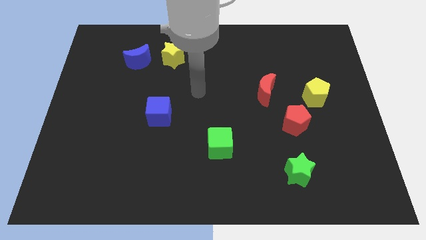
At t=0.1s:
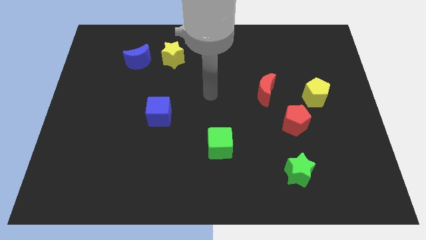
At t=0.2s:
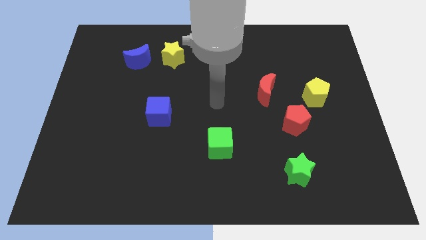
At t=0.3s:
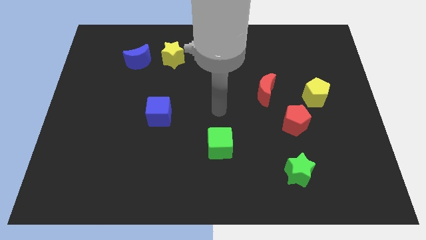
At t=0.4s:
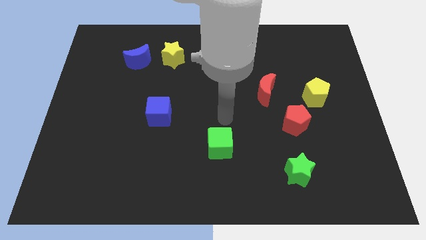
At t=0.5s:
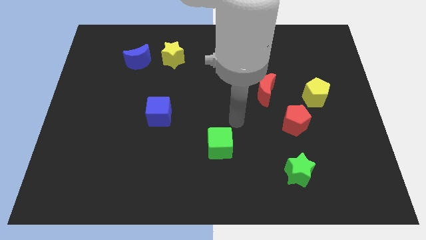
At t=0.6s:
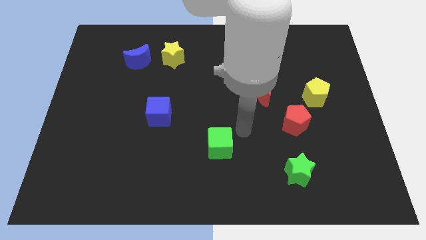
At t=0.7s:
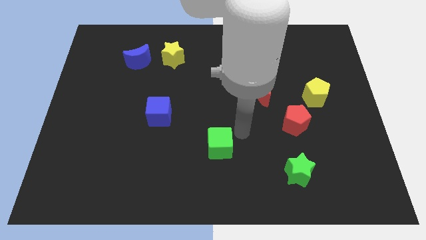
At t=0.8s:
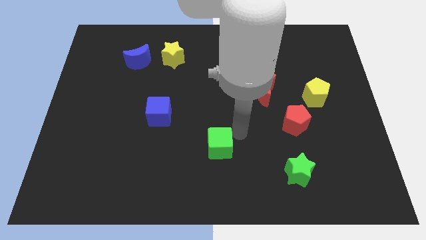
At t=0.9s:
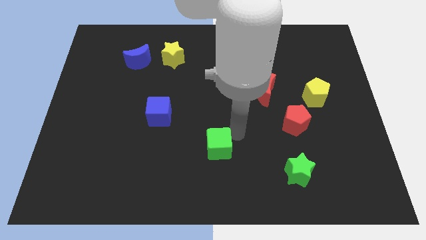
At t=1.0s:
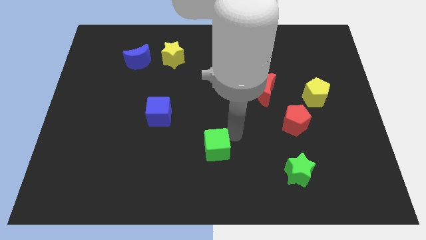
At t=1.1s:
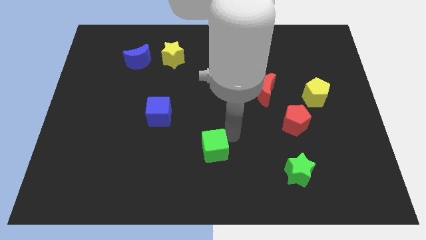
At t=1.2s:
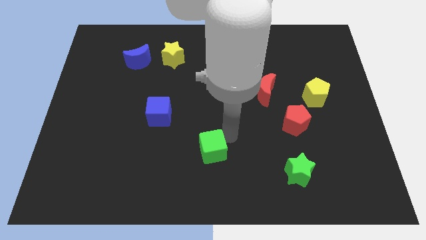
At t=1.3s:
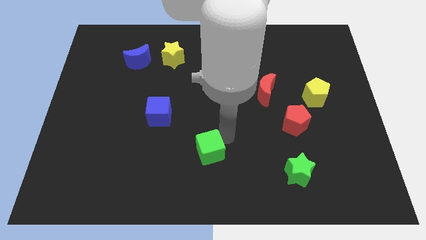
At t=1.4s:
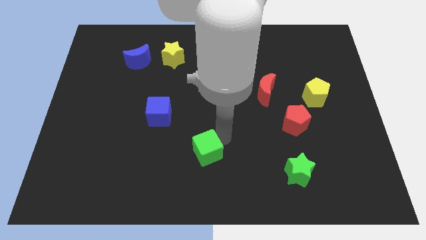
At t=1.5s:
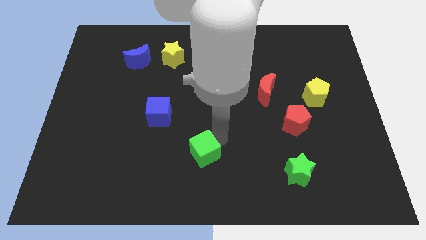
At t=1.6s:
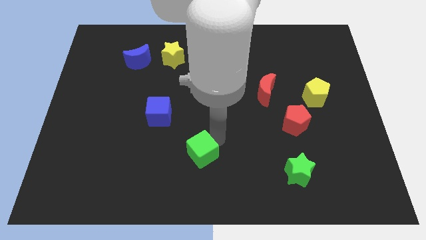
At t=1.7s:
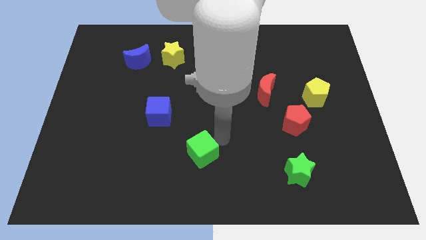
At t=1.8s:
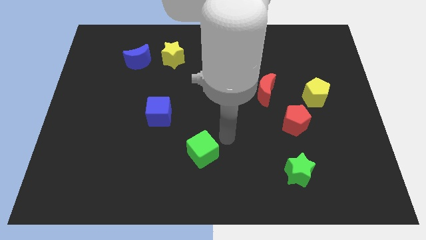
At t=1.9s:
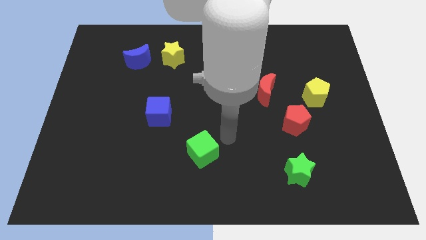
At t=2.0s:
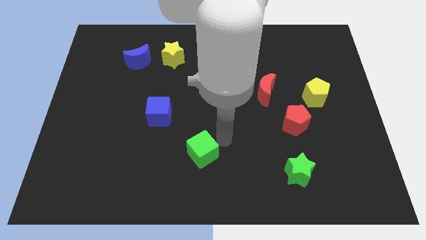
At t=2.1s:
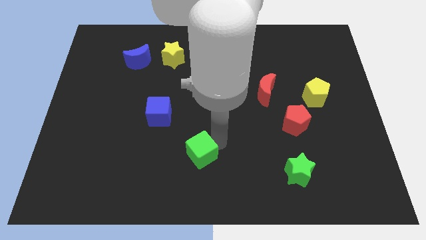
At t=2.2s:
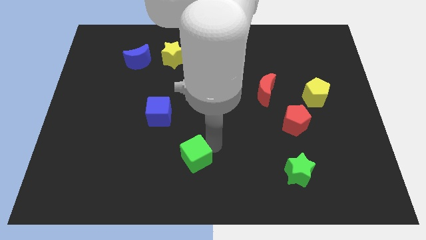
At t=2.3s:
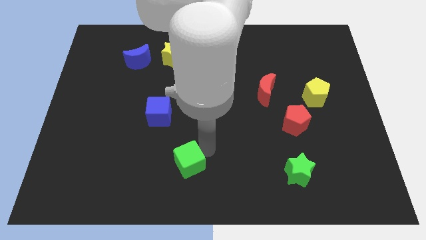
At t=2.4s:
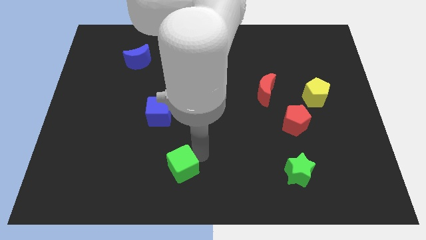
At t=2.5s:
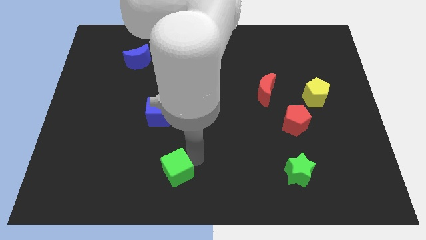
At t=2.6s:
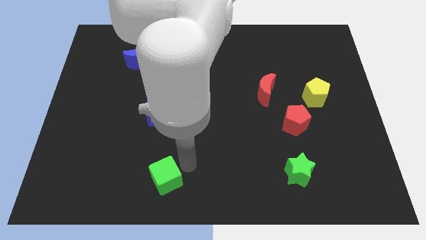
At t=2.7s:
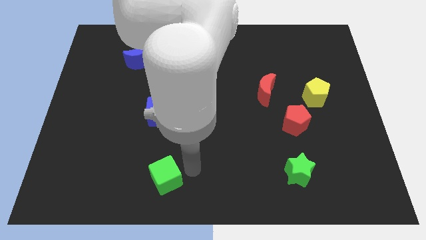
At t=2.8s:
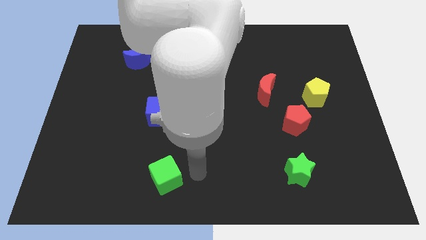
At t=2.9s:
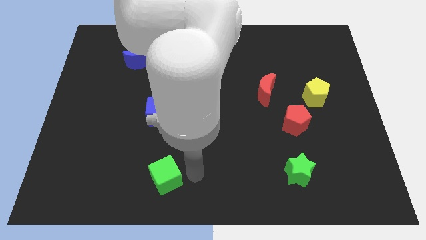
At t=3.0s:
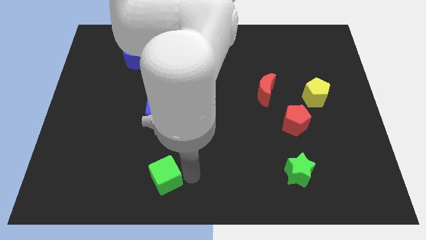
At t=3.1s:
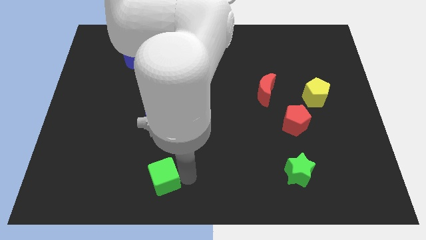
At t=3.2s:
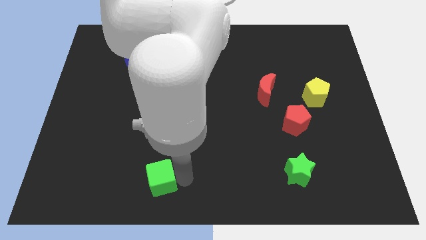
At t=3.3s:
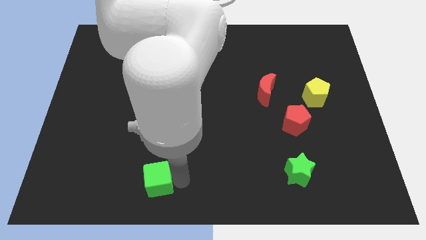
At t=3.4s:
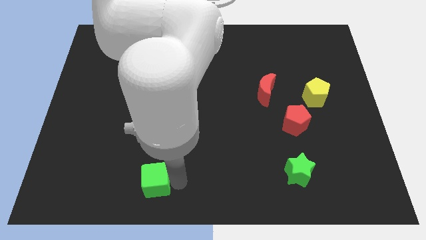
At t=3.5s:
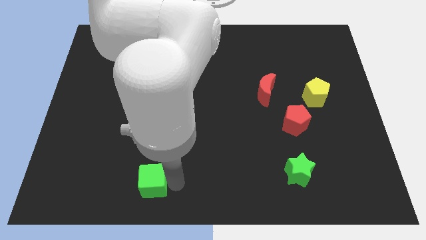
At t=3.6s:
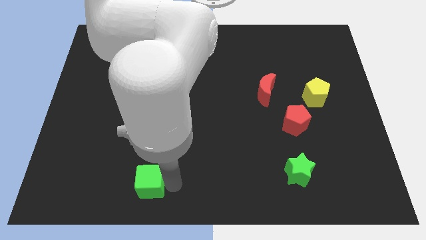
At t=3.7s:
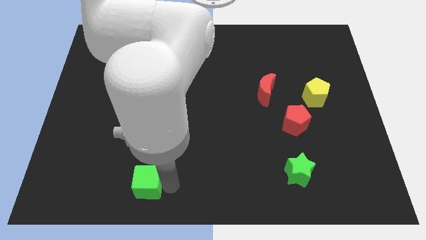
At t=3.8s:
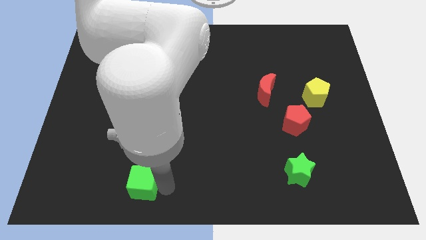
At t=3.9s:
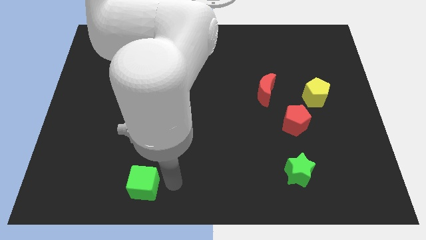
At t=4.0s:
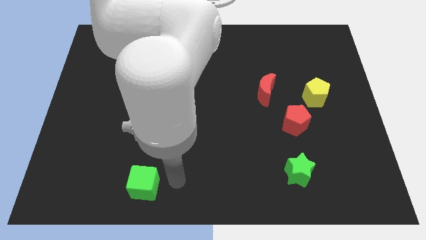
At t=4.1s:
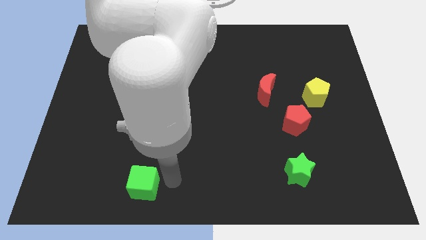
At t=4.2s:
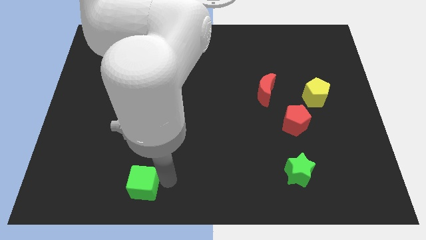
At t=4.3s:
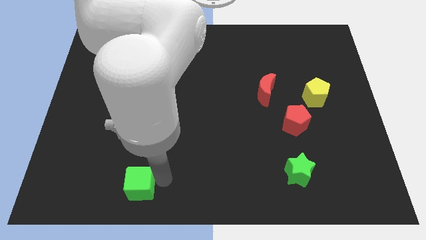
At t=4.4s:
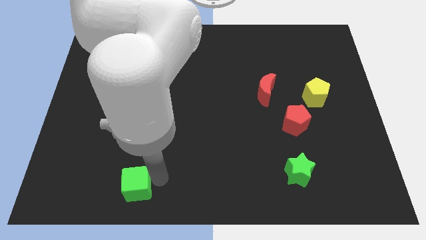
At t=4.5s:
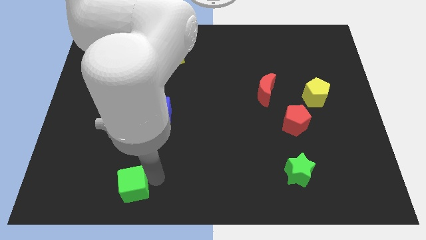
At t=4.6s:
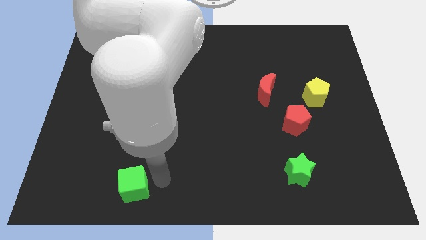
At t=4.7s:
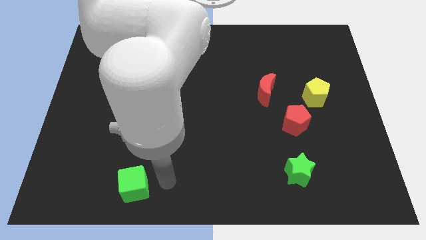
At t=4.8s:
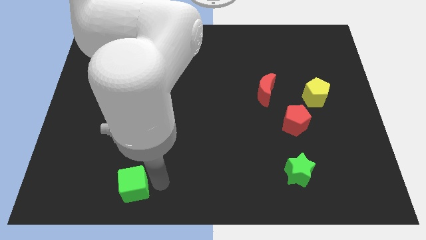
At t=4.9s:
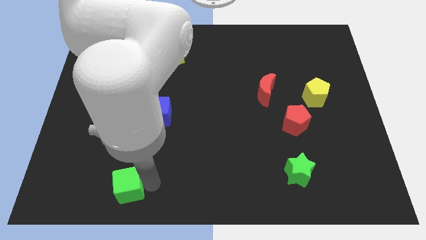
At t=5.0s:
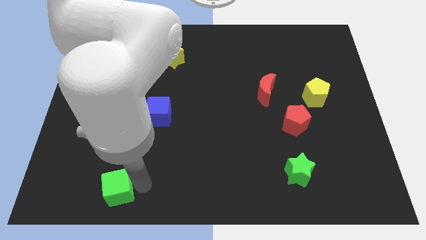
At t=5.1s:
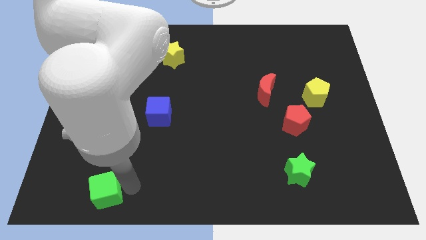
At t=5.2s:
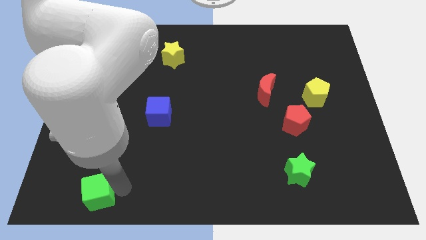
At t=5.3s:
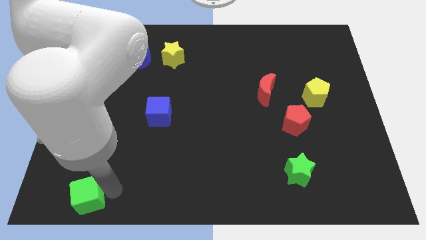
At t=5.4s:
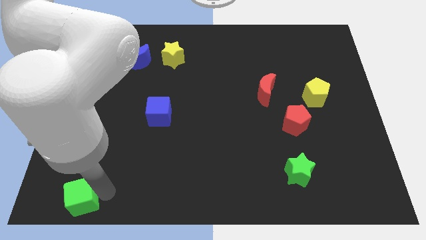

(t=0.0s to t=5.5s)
slide the green cube to the bottom left corner

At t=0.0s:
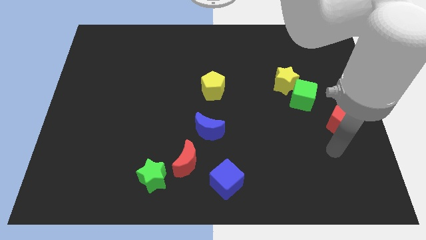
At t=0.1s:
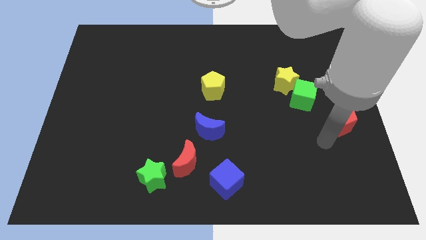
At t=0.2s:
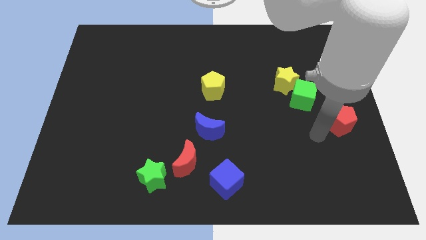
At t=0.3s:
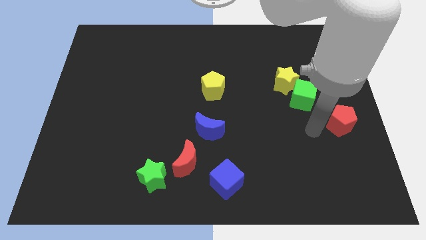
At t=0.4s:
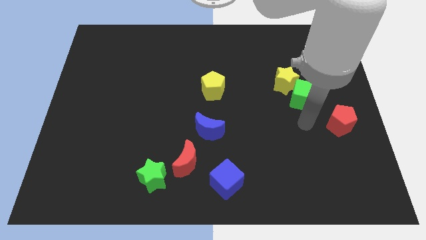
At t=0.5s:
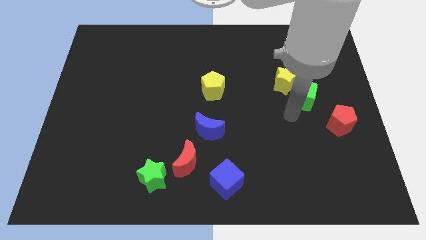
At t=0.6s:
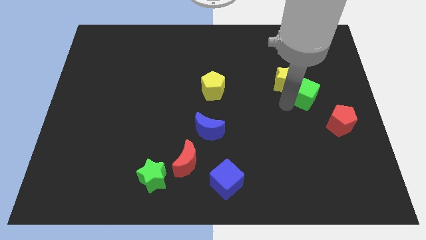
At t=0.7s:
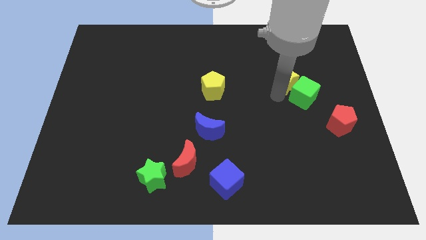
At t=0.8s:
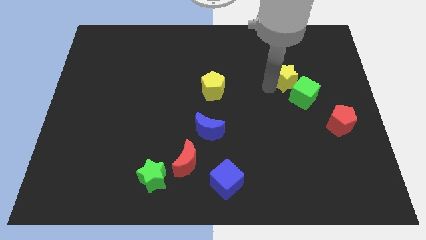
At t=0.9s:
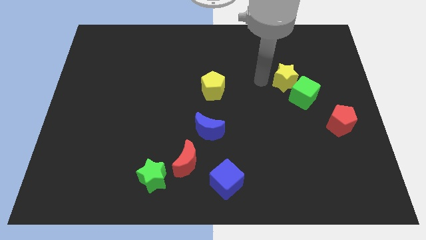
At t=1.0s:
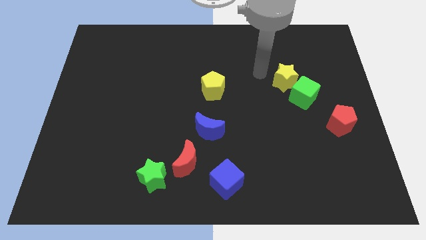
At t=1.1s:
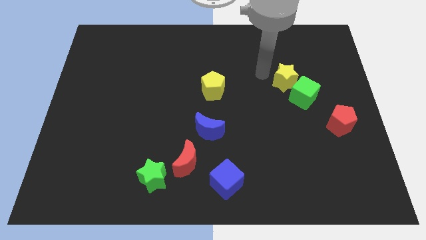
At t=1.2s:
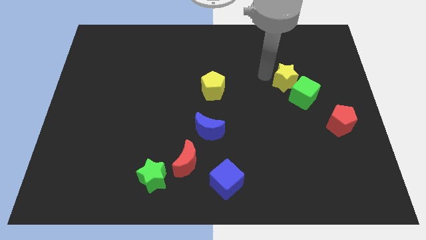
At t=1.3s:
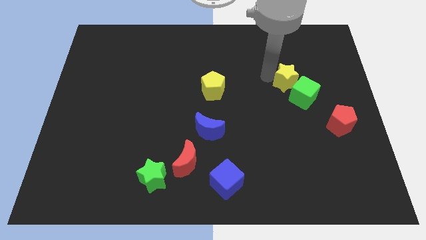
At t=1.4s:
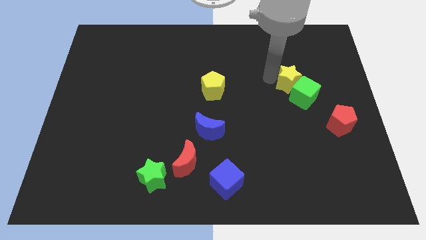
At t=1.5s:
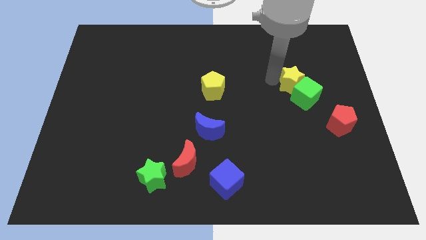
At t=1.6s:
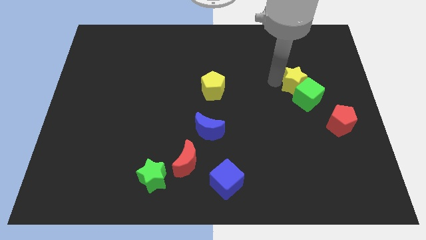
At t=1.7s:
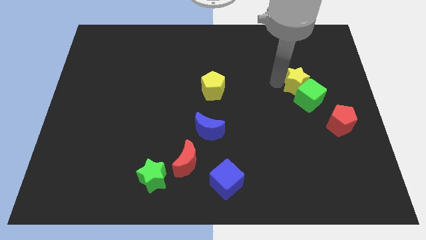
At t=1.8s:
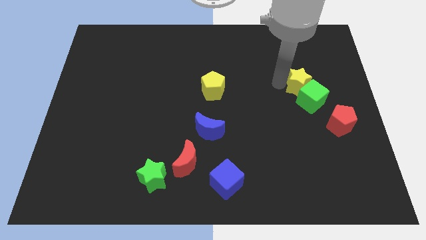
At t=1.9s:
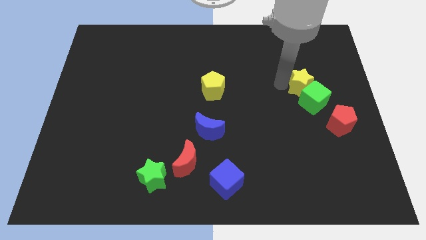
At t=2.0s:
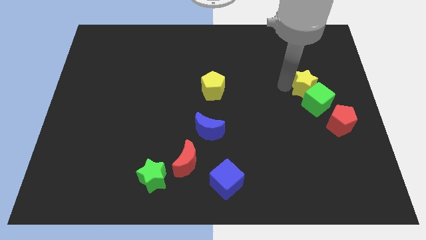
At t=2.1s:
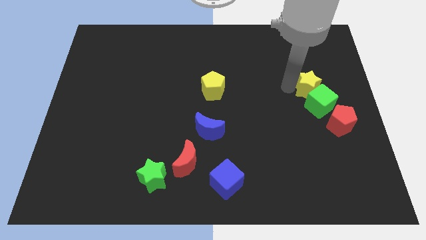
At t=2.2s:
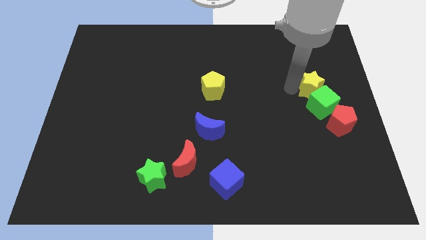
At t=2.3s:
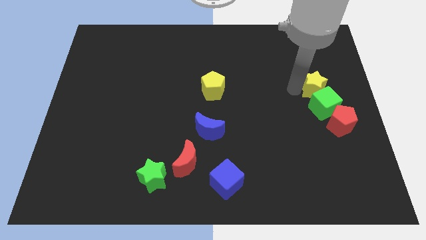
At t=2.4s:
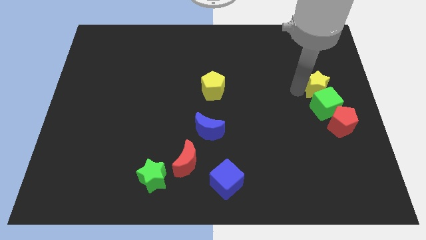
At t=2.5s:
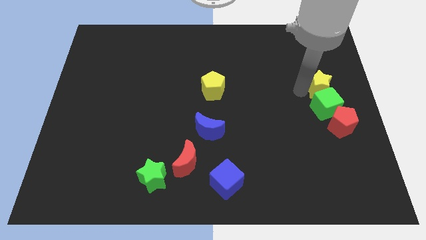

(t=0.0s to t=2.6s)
push the yellow star to the right side of the board
